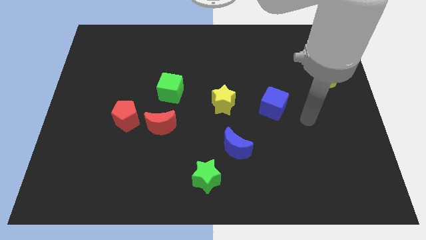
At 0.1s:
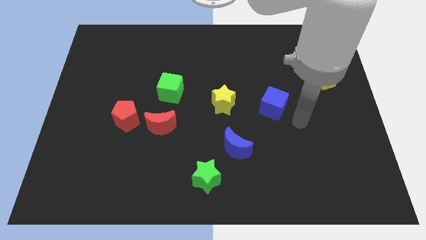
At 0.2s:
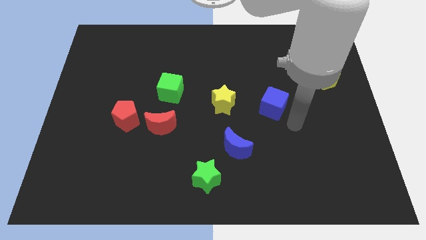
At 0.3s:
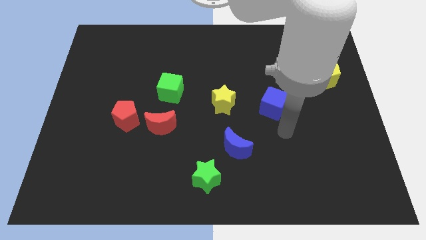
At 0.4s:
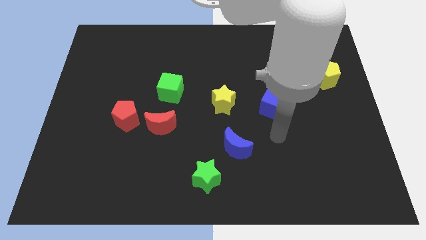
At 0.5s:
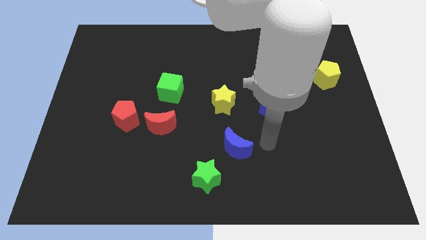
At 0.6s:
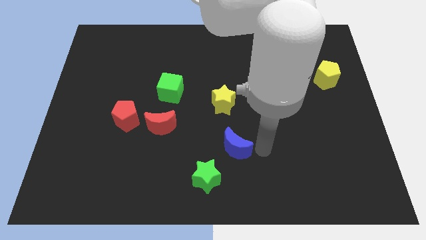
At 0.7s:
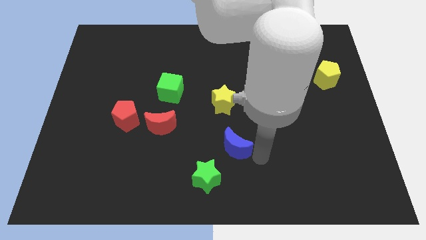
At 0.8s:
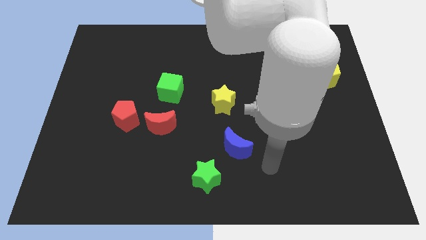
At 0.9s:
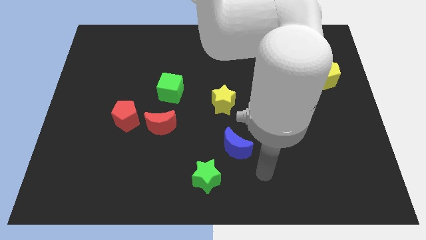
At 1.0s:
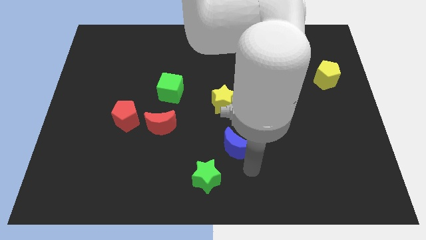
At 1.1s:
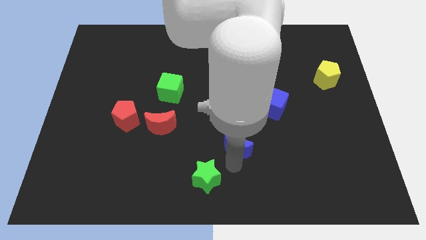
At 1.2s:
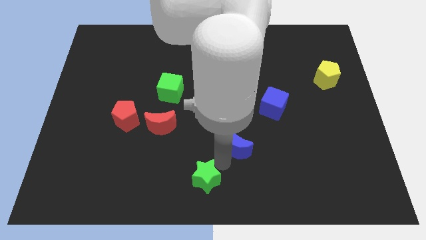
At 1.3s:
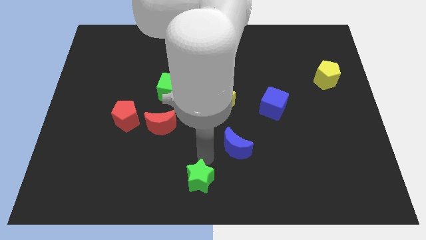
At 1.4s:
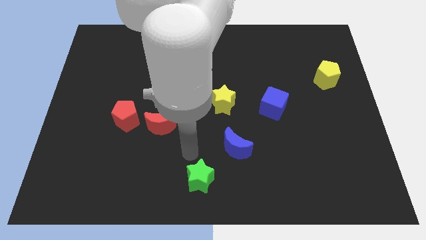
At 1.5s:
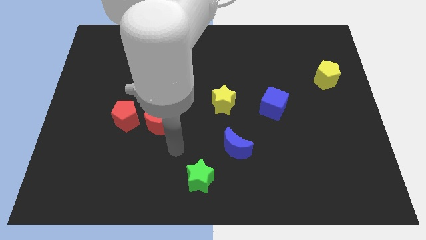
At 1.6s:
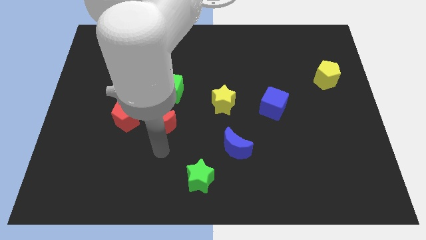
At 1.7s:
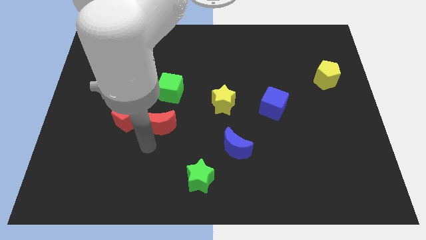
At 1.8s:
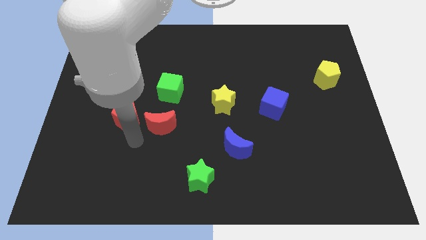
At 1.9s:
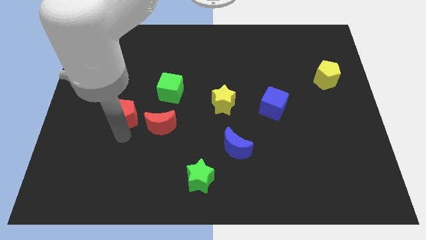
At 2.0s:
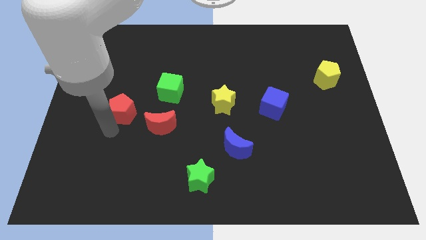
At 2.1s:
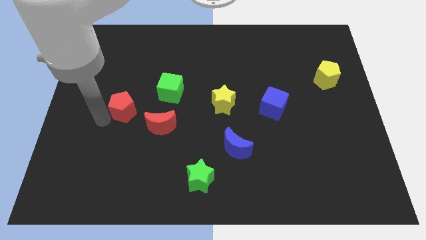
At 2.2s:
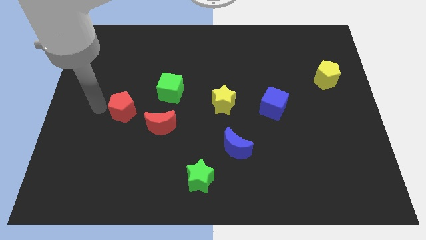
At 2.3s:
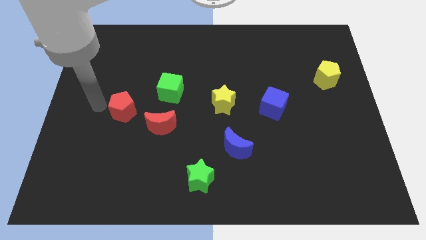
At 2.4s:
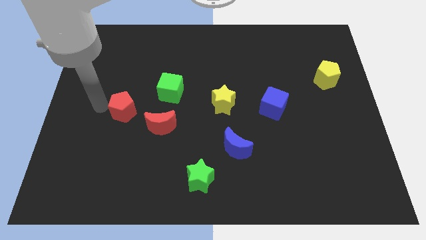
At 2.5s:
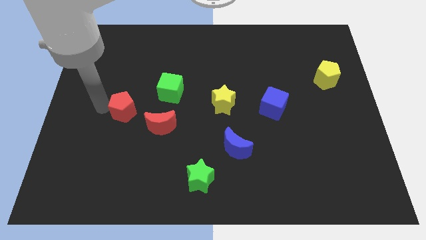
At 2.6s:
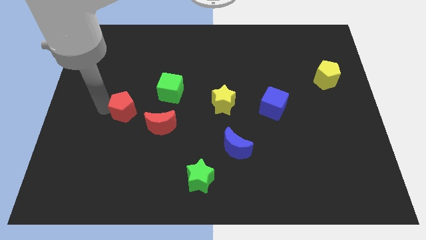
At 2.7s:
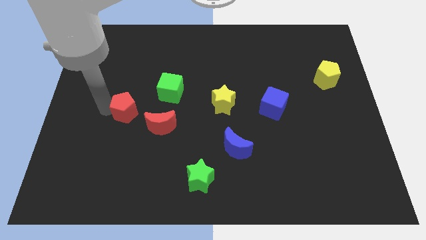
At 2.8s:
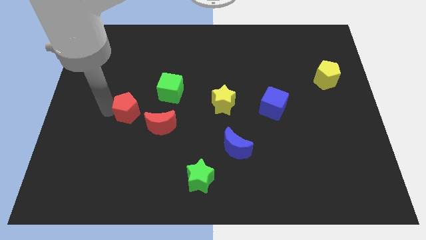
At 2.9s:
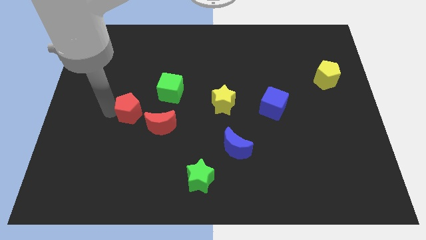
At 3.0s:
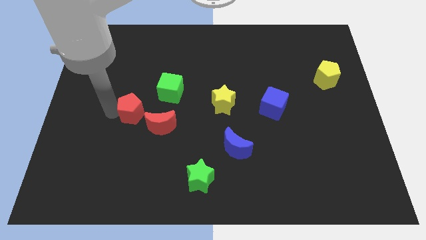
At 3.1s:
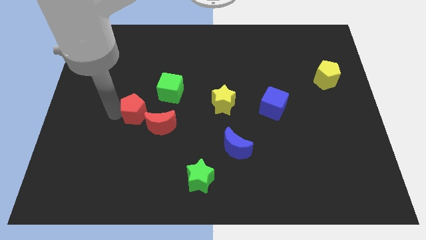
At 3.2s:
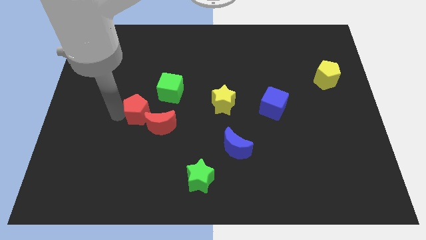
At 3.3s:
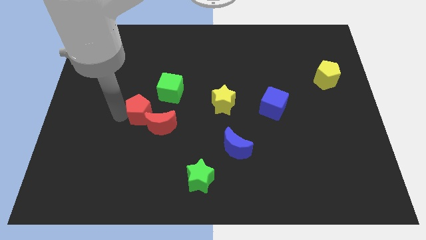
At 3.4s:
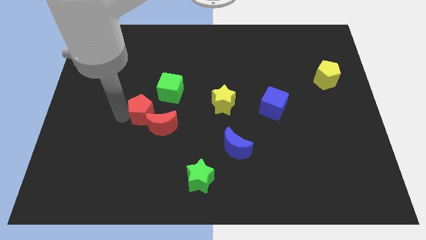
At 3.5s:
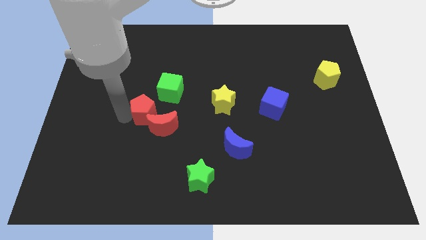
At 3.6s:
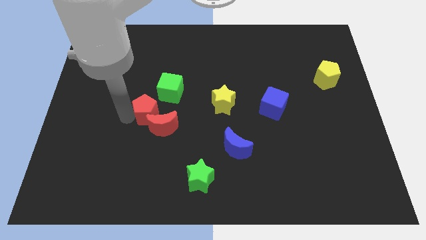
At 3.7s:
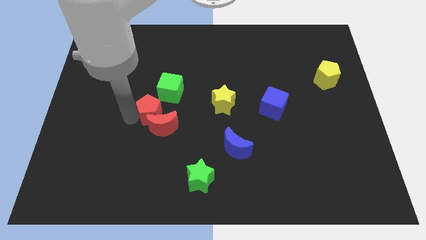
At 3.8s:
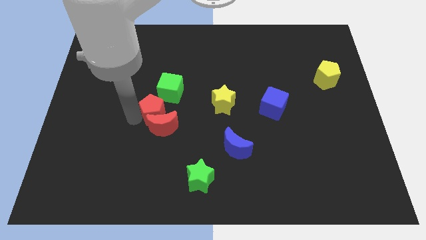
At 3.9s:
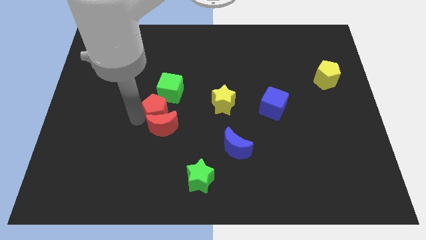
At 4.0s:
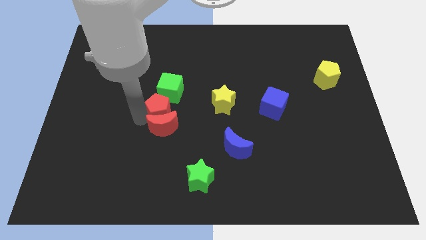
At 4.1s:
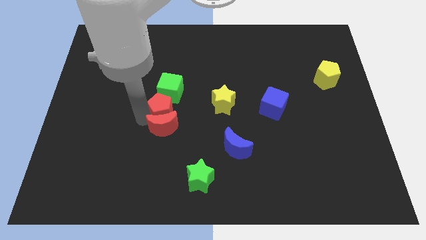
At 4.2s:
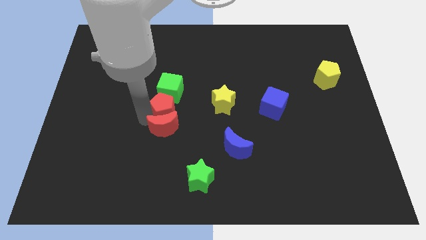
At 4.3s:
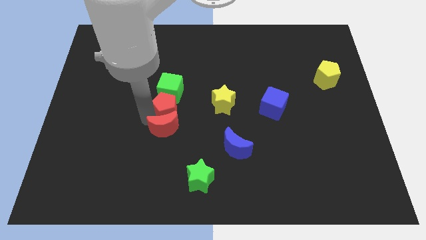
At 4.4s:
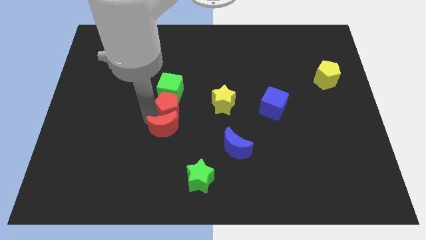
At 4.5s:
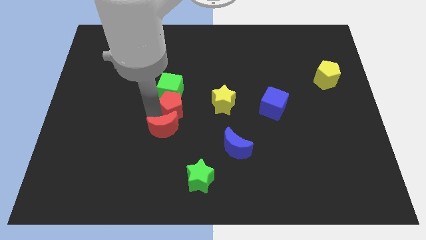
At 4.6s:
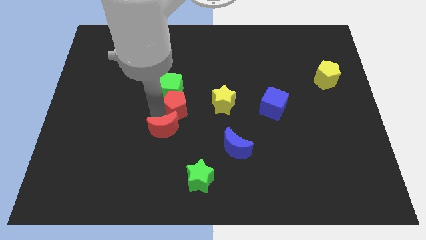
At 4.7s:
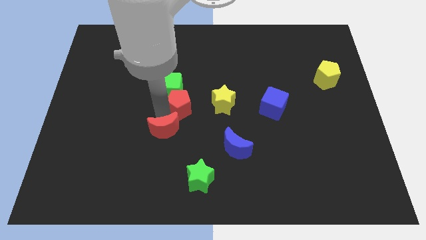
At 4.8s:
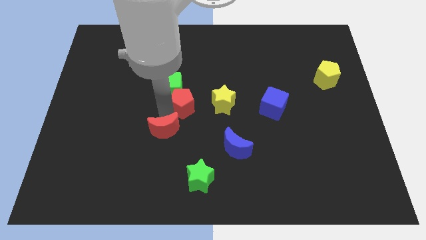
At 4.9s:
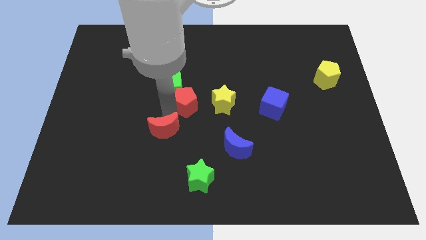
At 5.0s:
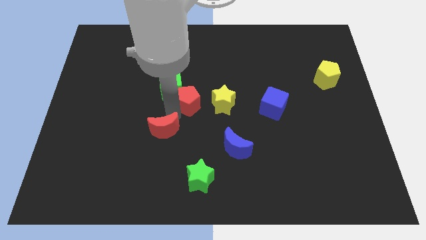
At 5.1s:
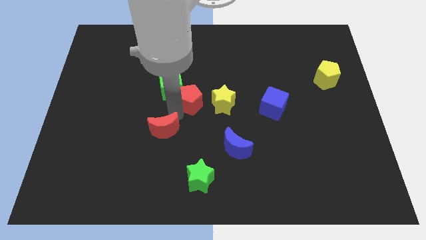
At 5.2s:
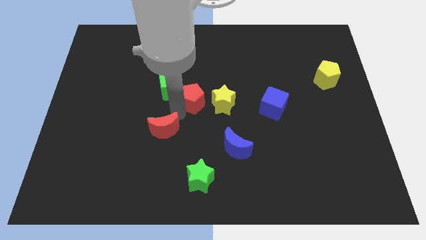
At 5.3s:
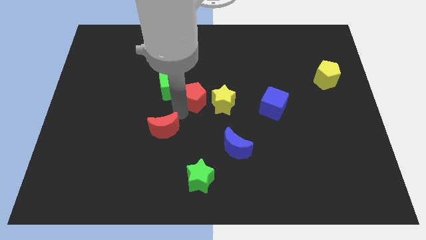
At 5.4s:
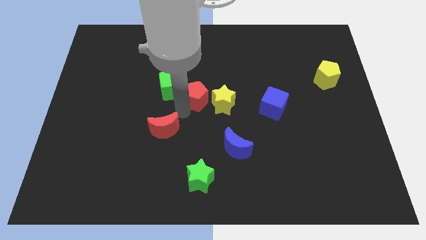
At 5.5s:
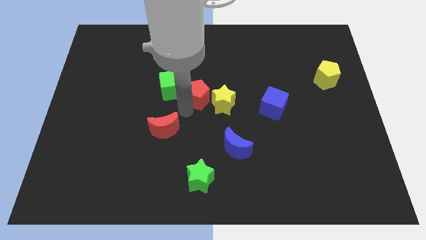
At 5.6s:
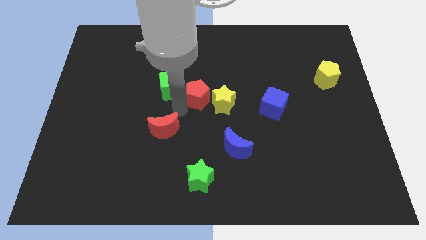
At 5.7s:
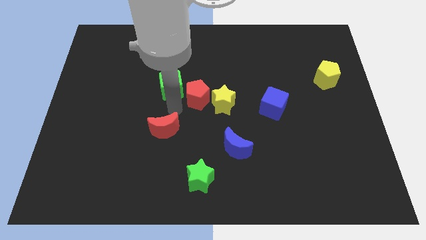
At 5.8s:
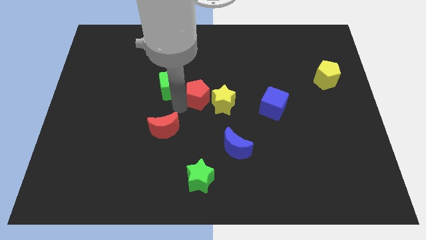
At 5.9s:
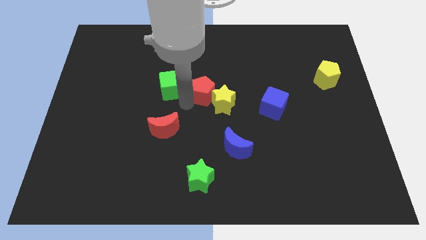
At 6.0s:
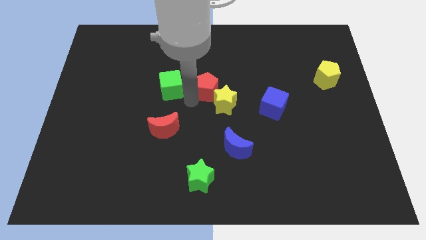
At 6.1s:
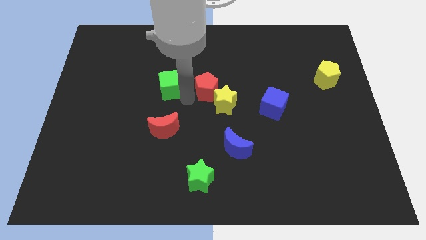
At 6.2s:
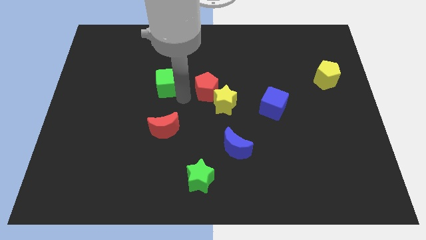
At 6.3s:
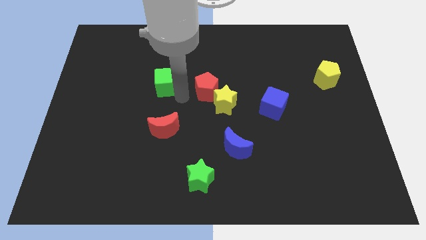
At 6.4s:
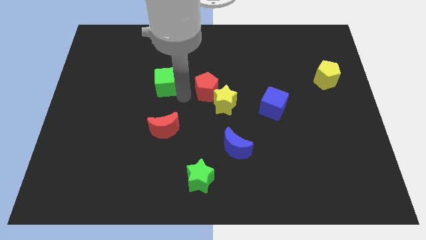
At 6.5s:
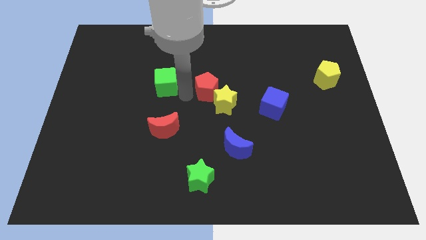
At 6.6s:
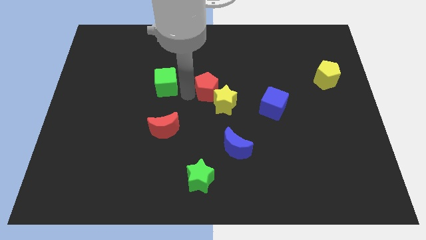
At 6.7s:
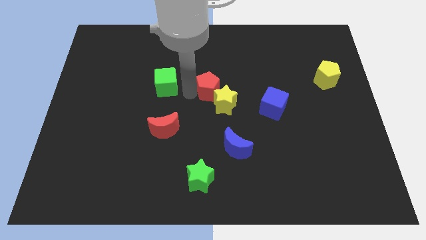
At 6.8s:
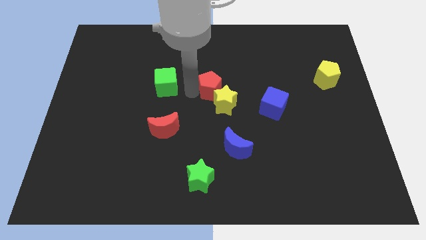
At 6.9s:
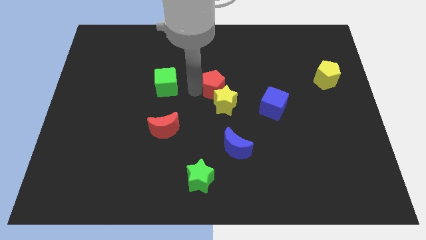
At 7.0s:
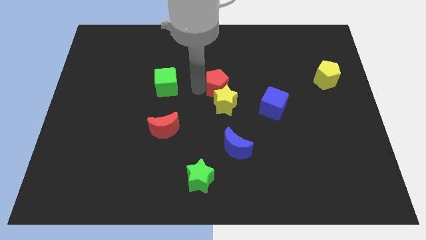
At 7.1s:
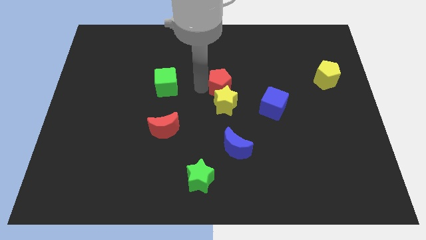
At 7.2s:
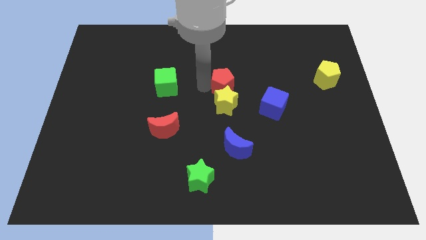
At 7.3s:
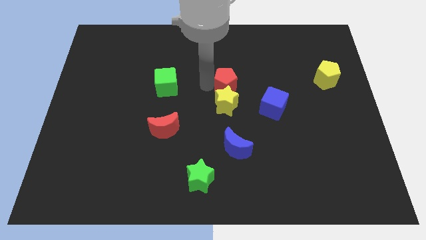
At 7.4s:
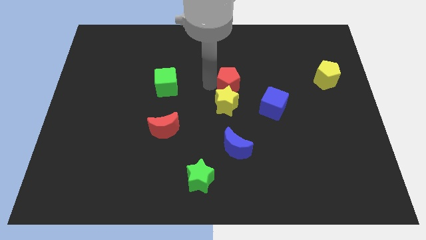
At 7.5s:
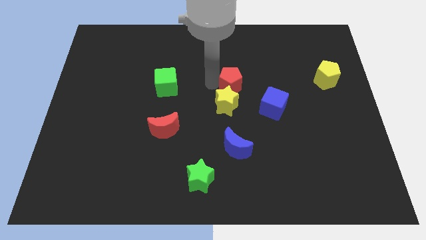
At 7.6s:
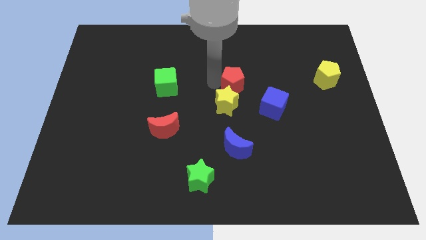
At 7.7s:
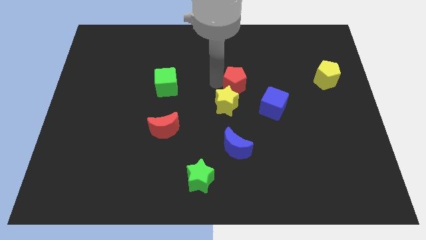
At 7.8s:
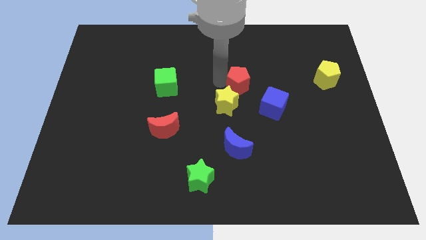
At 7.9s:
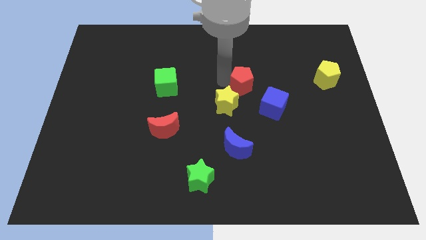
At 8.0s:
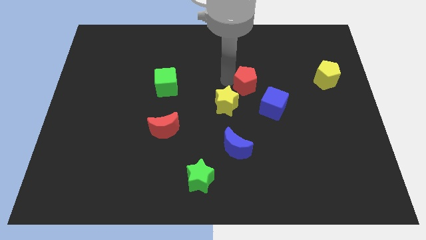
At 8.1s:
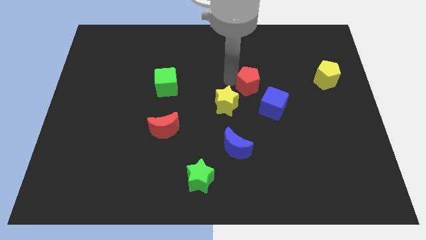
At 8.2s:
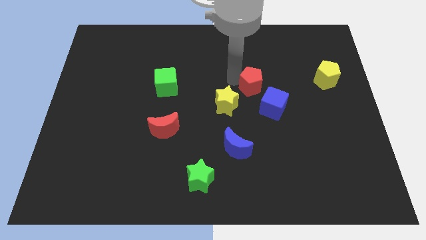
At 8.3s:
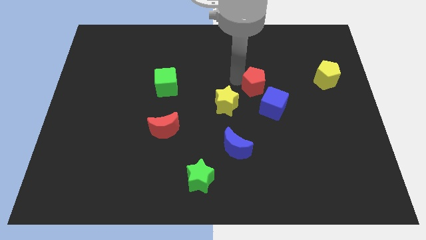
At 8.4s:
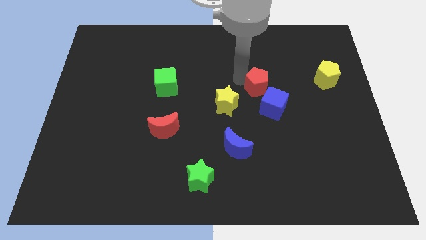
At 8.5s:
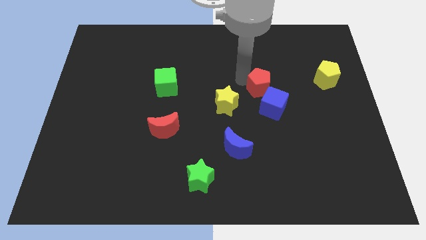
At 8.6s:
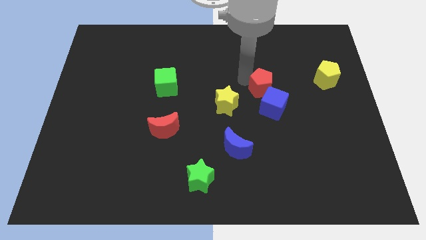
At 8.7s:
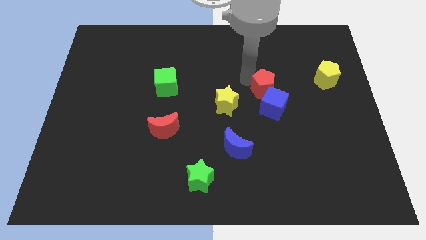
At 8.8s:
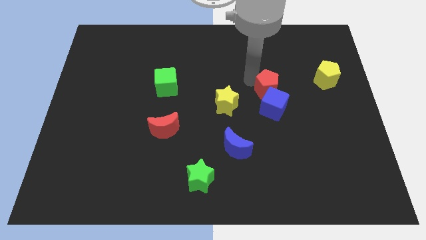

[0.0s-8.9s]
slide the red pentagon right of the yellow star
